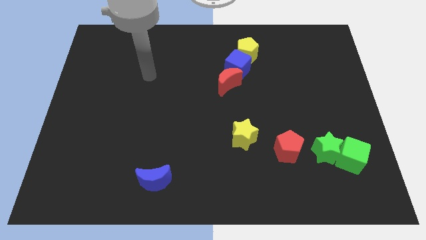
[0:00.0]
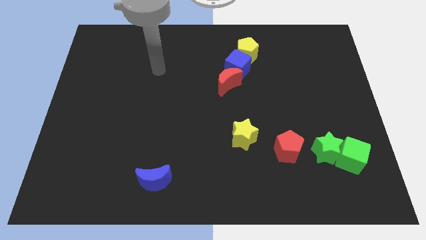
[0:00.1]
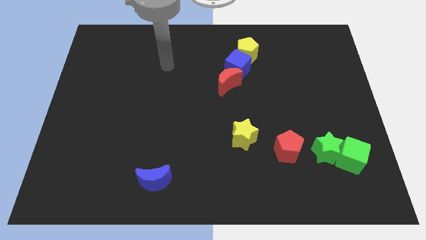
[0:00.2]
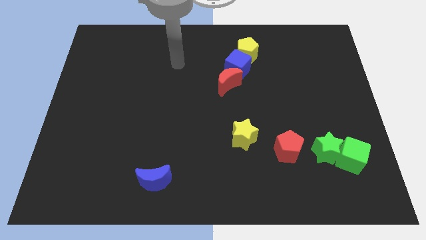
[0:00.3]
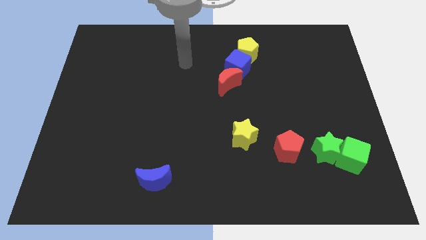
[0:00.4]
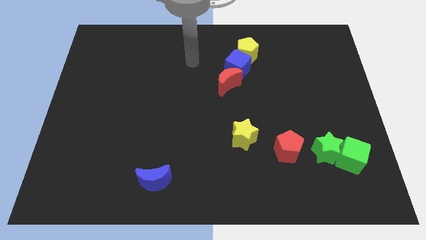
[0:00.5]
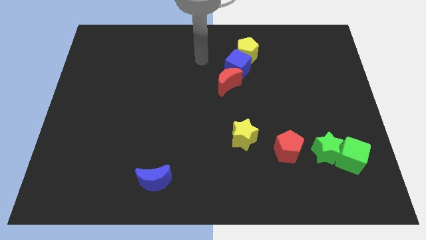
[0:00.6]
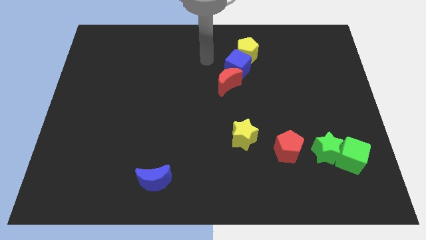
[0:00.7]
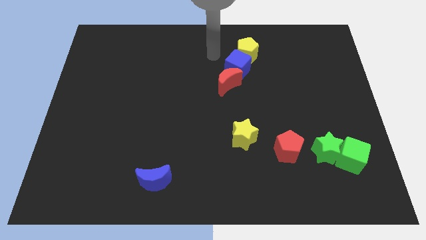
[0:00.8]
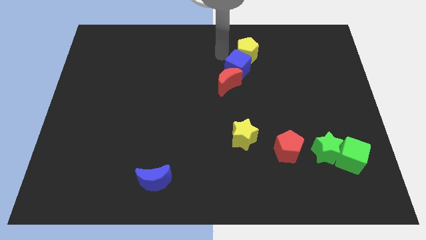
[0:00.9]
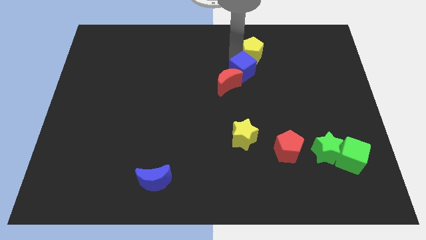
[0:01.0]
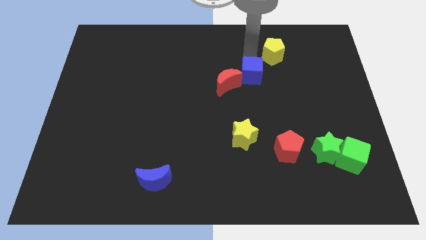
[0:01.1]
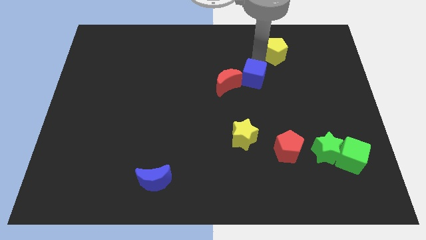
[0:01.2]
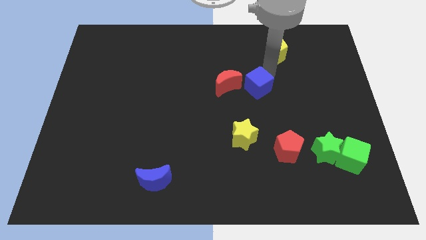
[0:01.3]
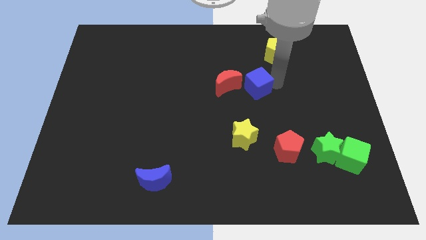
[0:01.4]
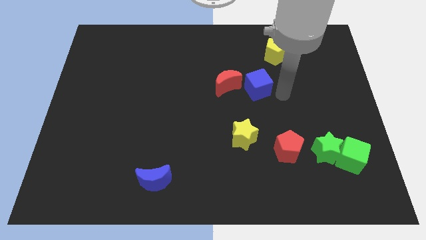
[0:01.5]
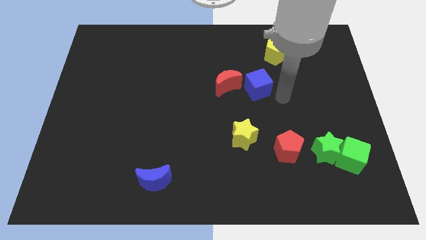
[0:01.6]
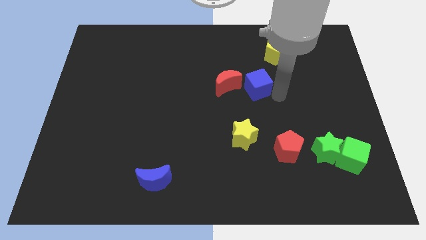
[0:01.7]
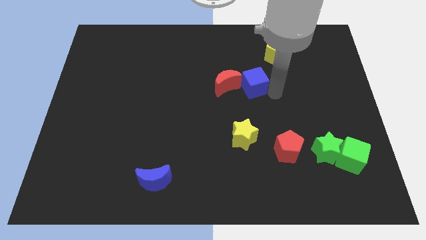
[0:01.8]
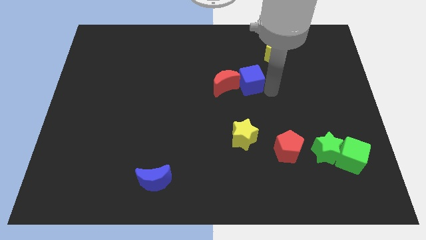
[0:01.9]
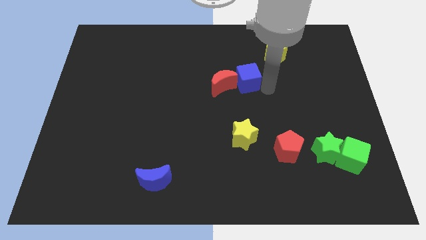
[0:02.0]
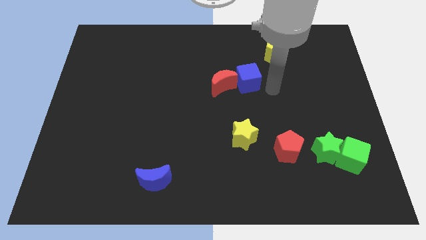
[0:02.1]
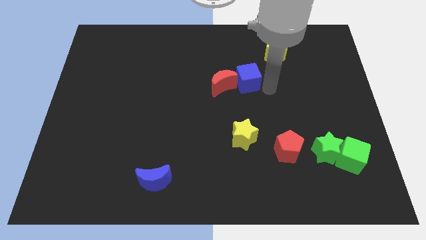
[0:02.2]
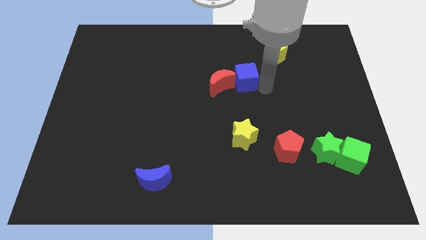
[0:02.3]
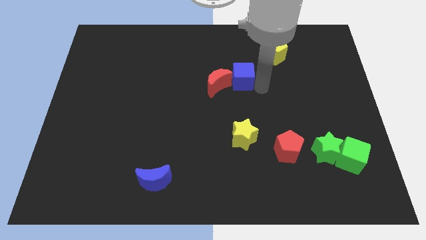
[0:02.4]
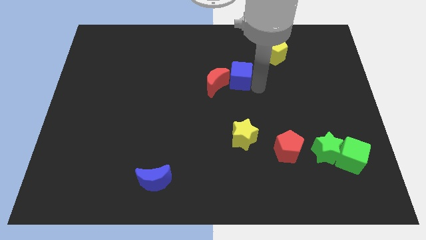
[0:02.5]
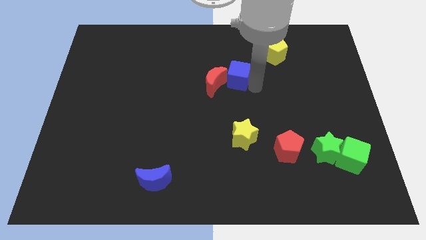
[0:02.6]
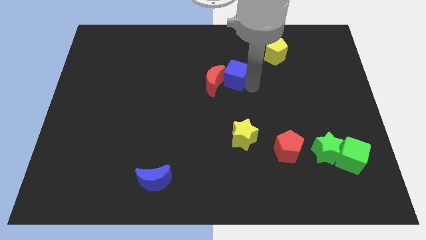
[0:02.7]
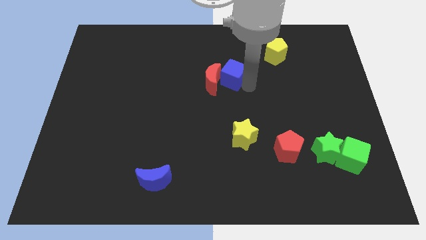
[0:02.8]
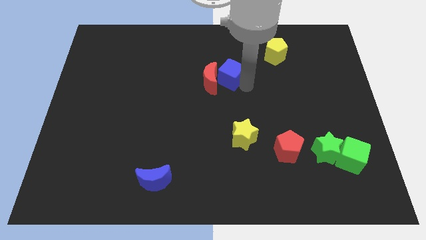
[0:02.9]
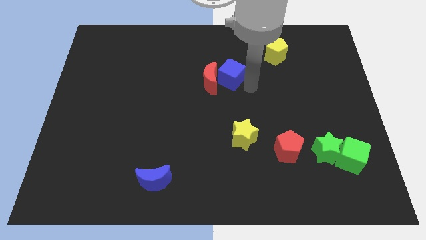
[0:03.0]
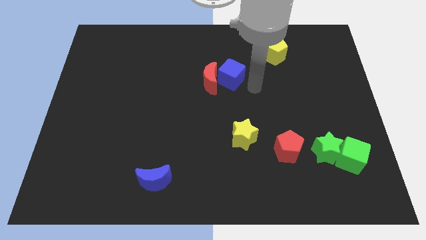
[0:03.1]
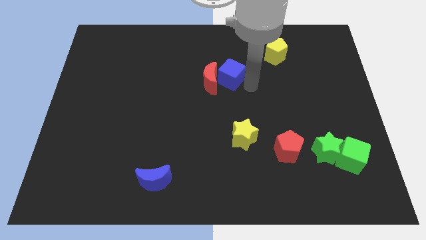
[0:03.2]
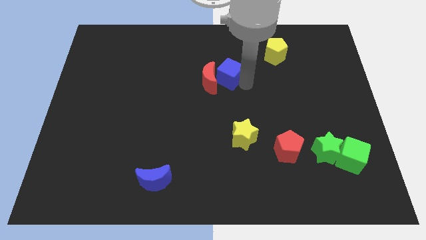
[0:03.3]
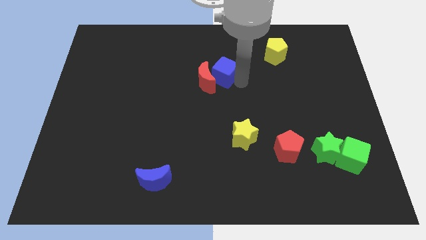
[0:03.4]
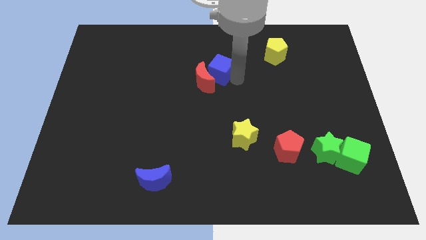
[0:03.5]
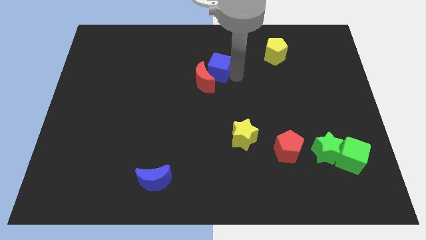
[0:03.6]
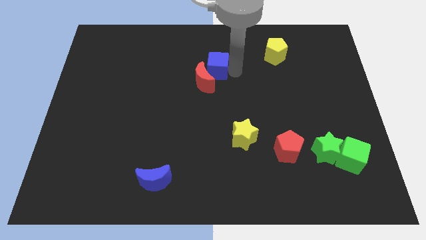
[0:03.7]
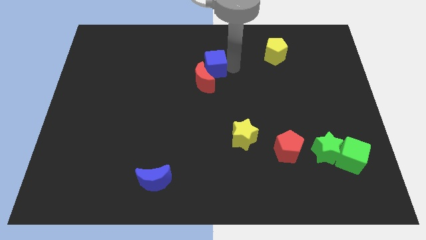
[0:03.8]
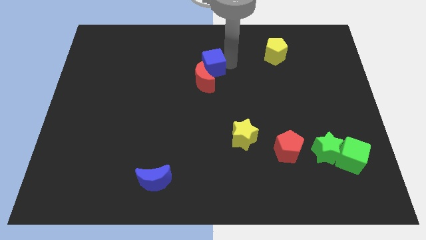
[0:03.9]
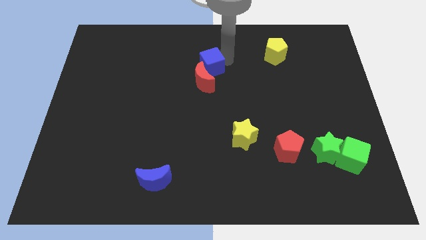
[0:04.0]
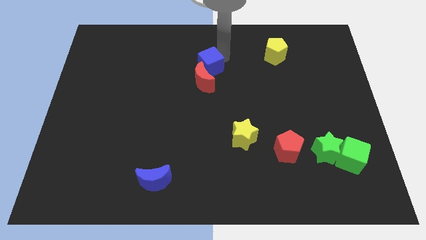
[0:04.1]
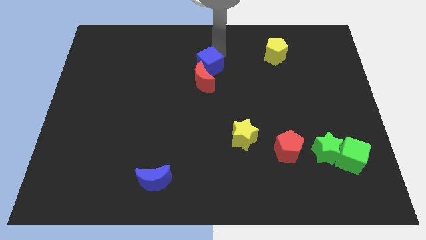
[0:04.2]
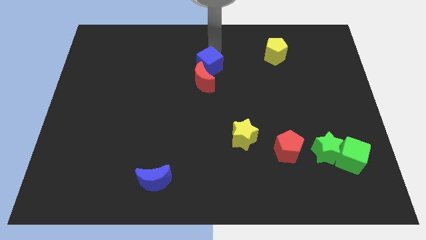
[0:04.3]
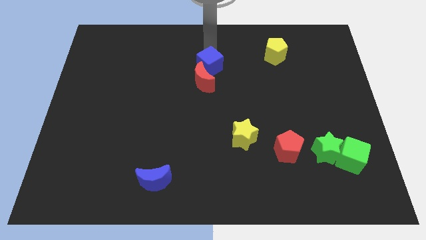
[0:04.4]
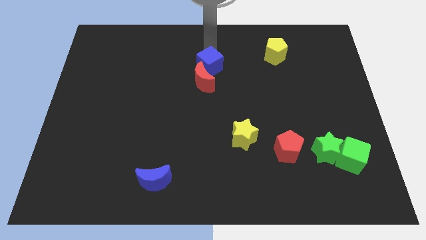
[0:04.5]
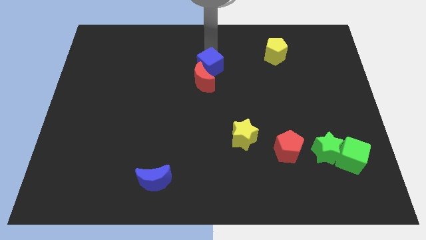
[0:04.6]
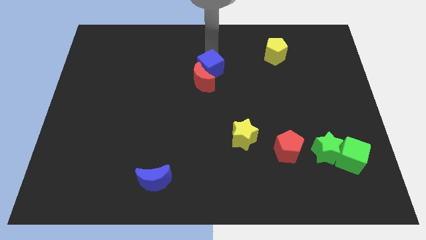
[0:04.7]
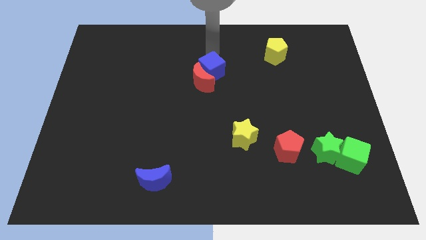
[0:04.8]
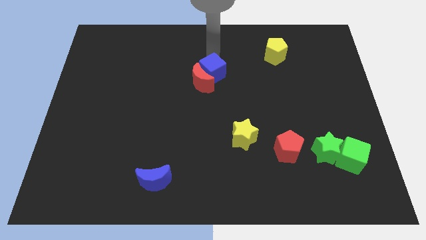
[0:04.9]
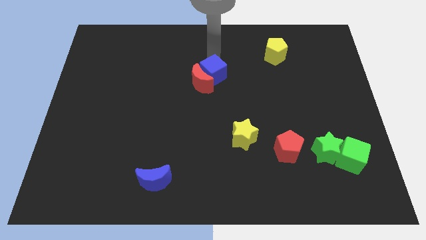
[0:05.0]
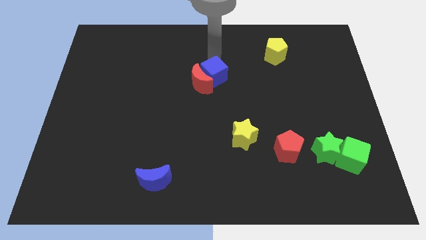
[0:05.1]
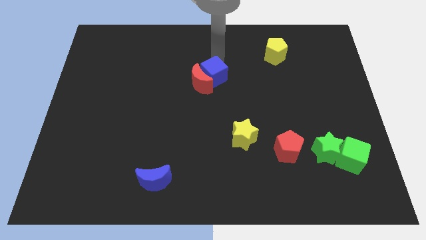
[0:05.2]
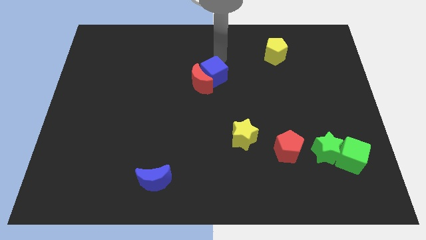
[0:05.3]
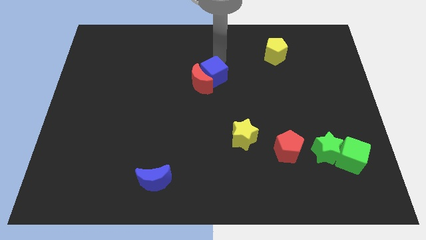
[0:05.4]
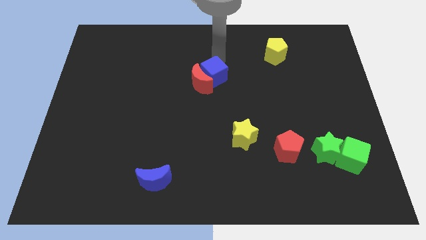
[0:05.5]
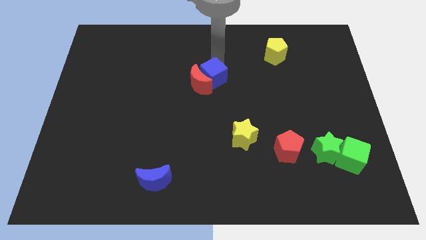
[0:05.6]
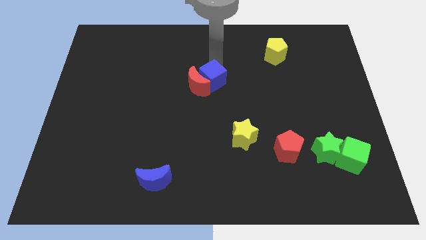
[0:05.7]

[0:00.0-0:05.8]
push the blue cube down and left diagonally a little bit

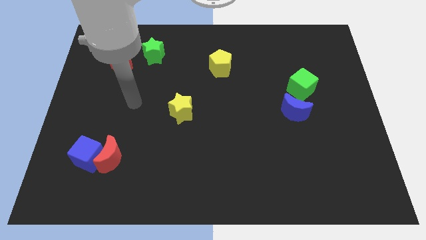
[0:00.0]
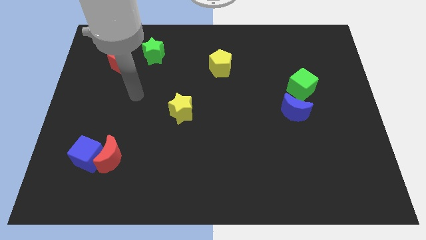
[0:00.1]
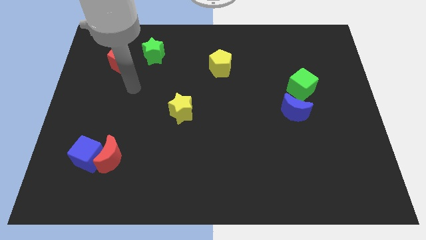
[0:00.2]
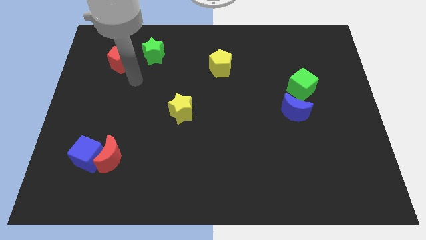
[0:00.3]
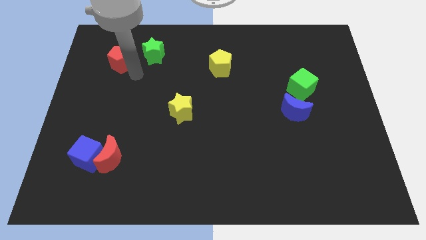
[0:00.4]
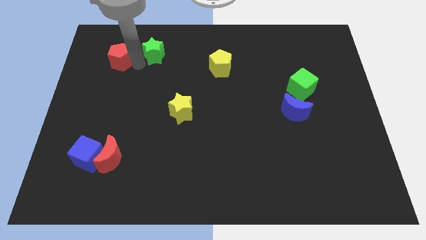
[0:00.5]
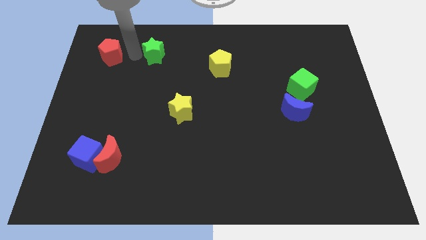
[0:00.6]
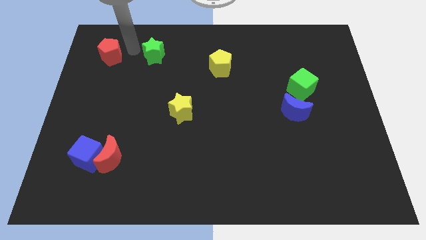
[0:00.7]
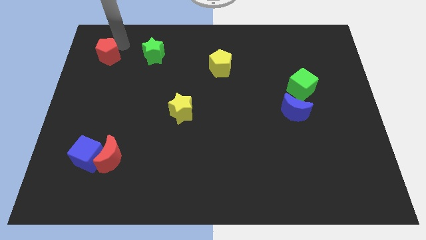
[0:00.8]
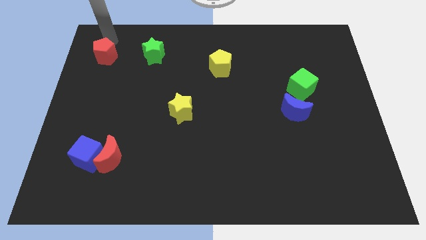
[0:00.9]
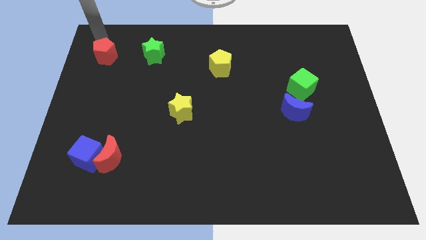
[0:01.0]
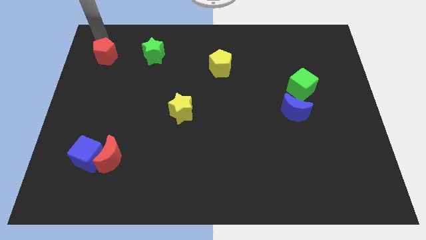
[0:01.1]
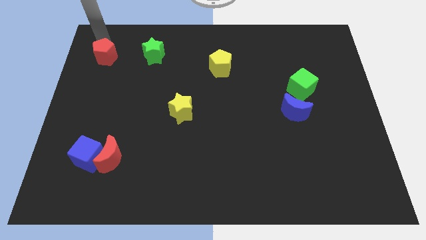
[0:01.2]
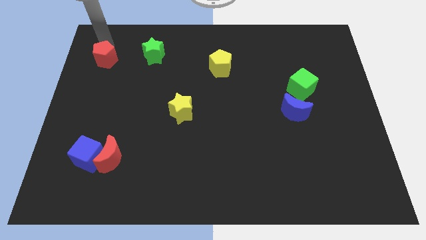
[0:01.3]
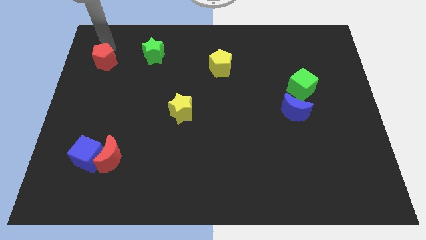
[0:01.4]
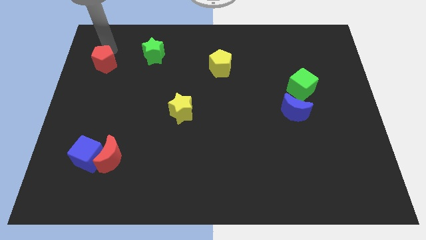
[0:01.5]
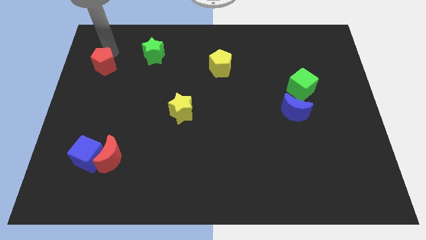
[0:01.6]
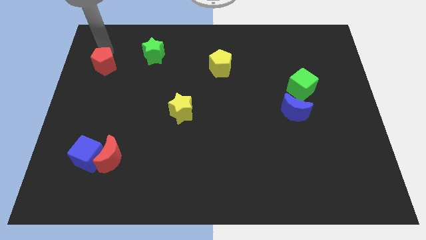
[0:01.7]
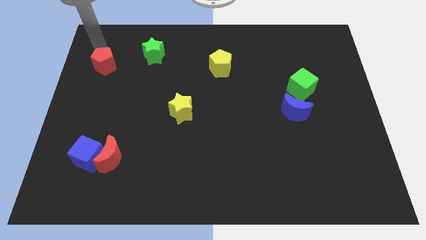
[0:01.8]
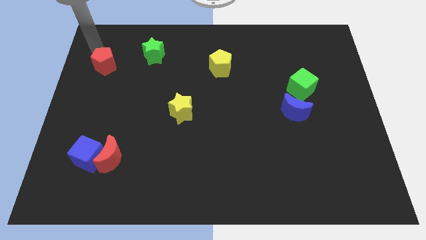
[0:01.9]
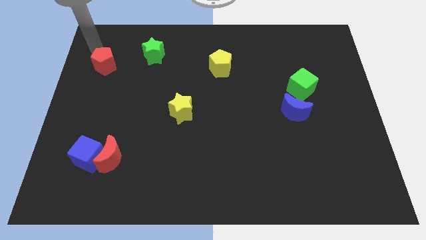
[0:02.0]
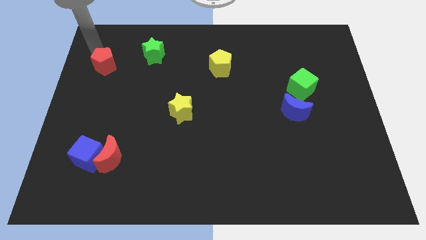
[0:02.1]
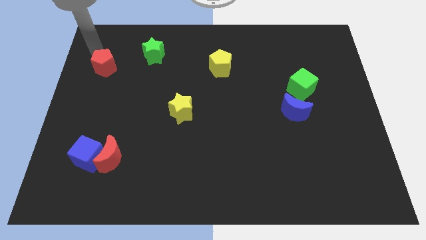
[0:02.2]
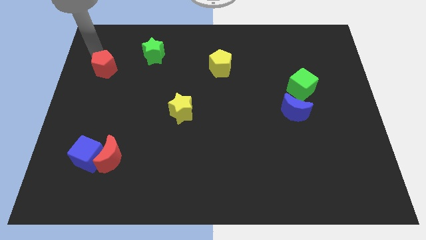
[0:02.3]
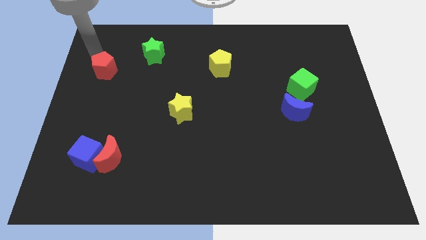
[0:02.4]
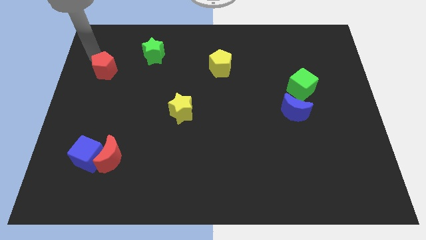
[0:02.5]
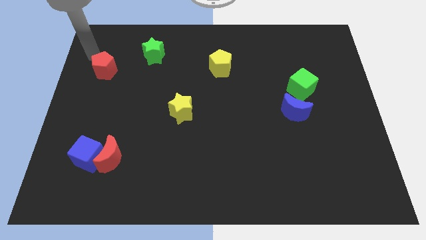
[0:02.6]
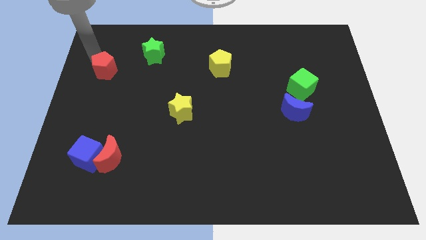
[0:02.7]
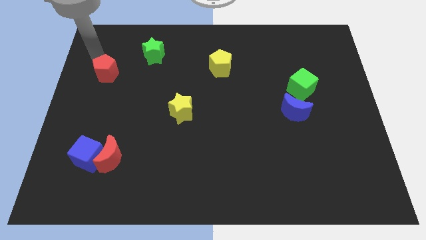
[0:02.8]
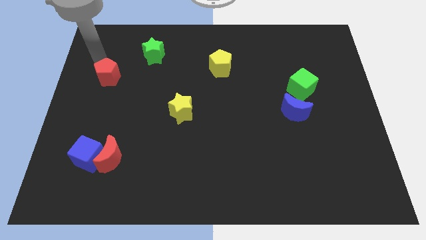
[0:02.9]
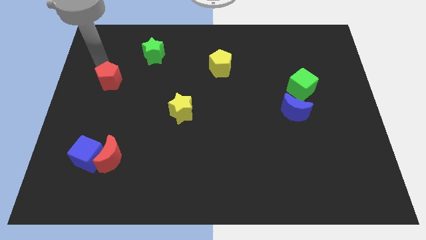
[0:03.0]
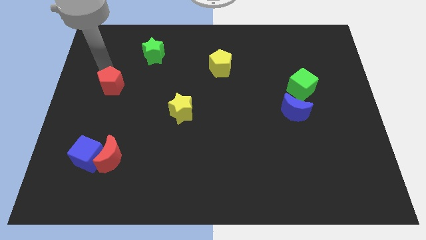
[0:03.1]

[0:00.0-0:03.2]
slightly move the red pentagon down
